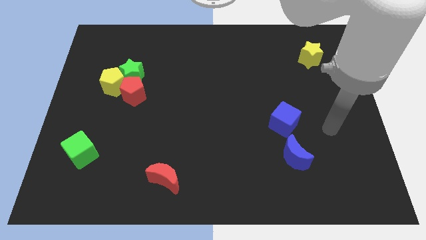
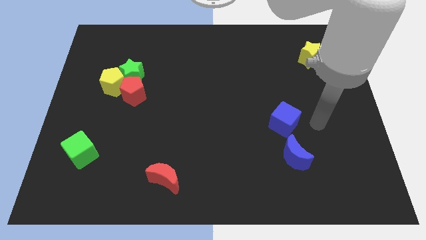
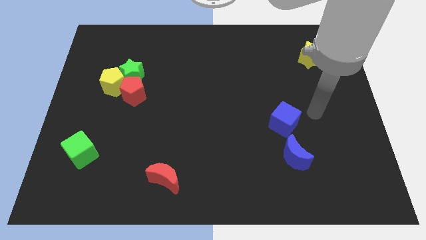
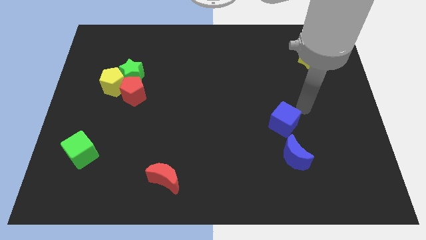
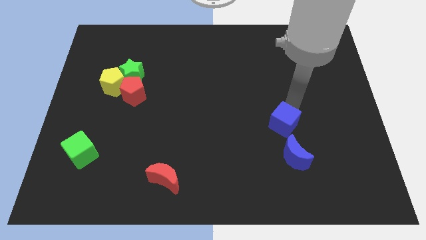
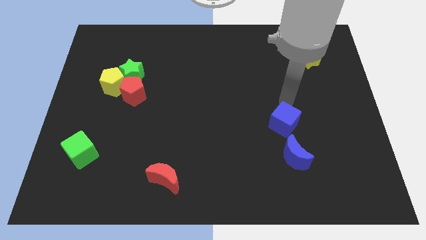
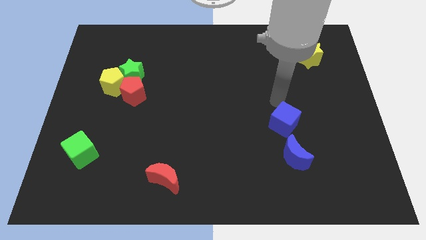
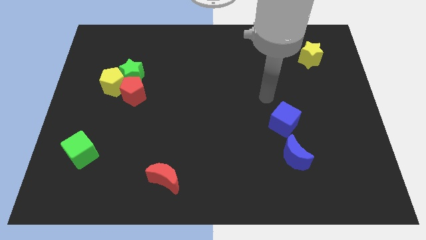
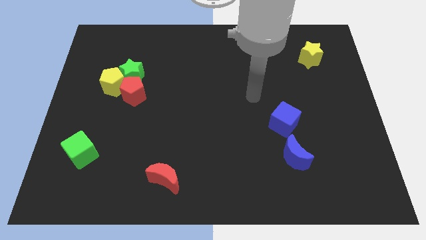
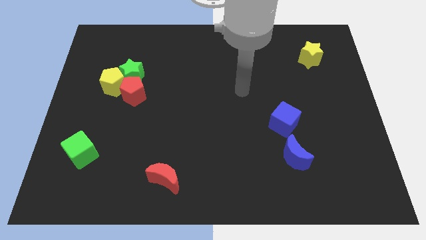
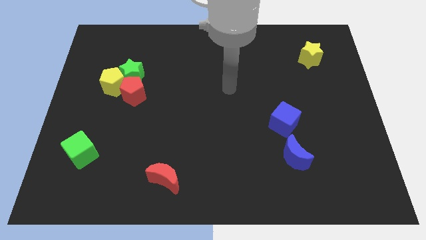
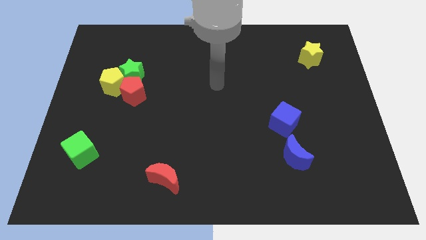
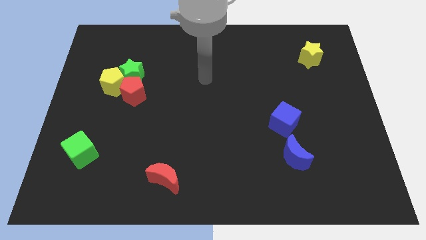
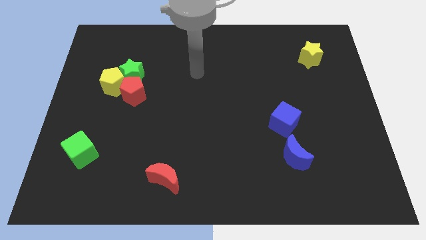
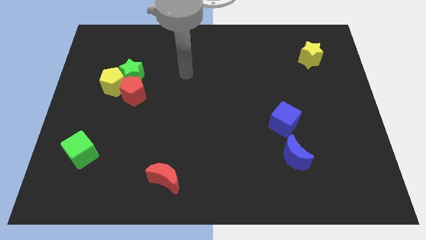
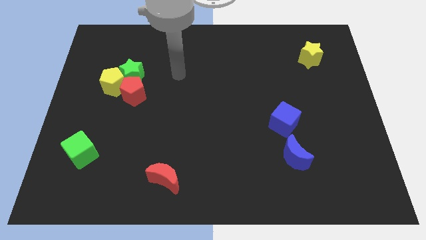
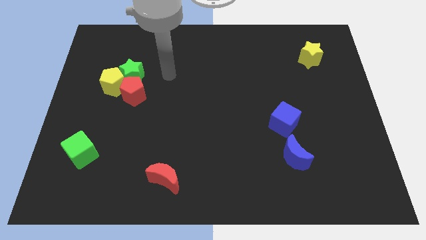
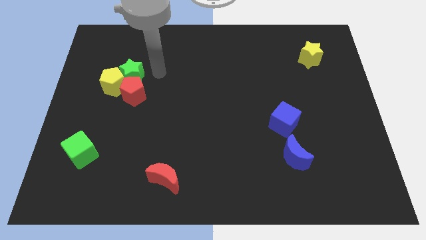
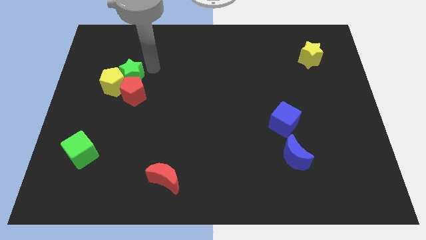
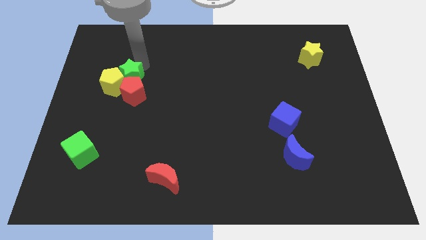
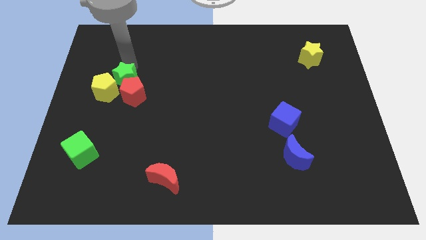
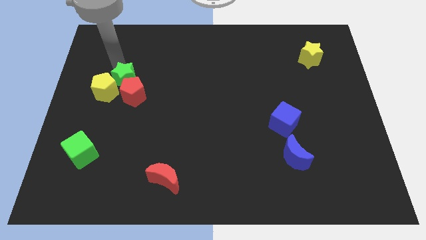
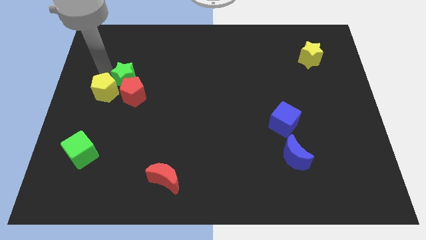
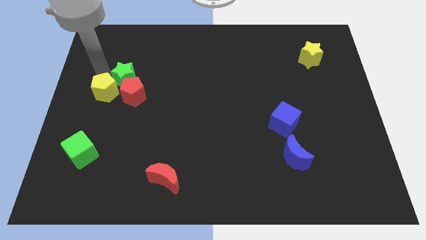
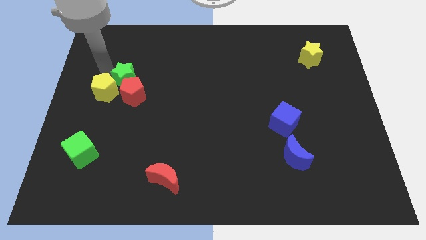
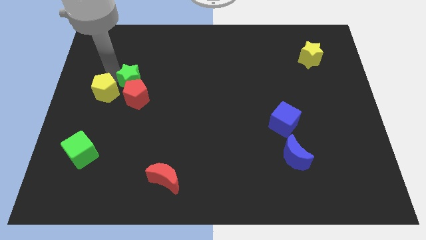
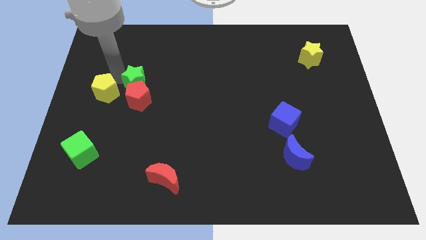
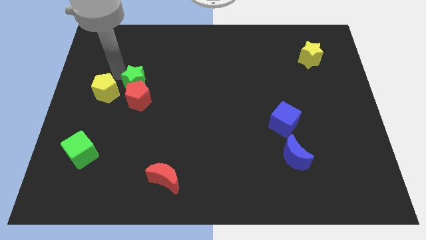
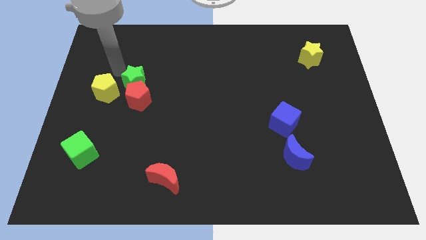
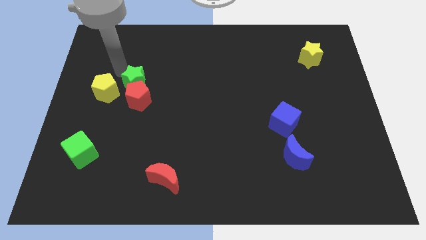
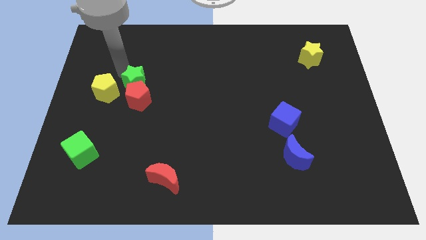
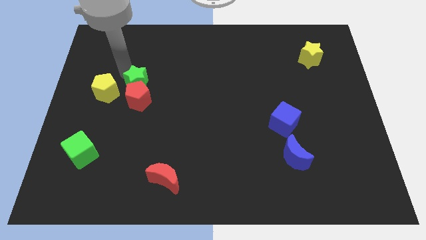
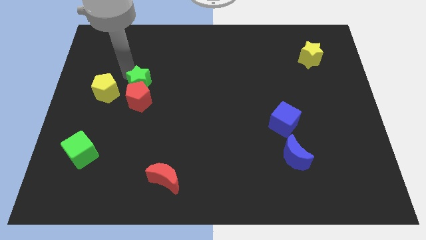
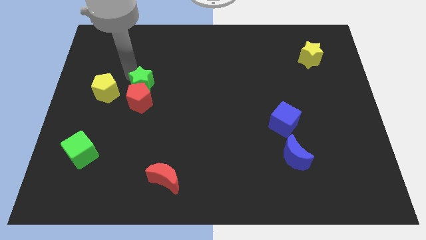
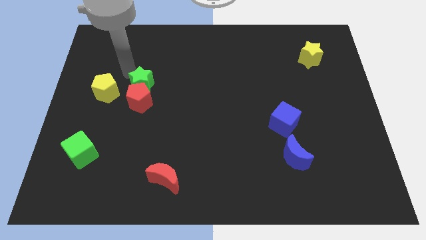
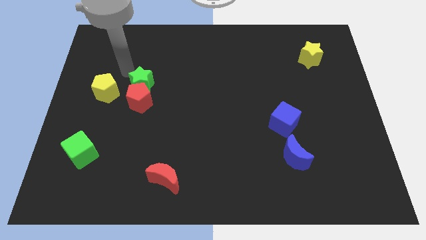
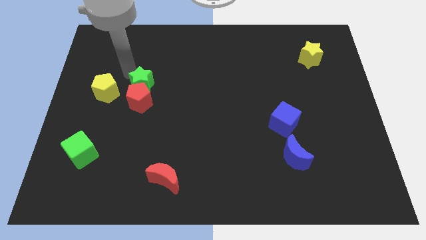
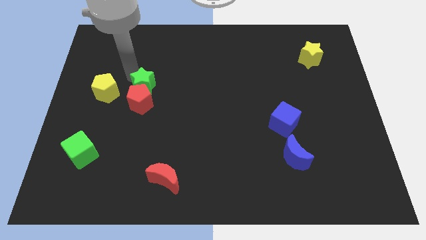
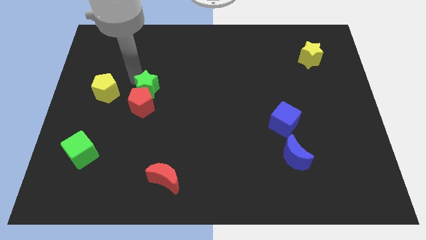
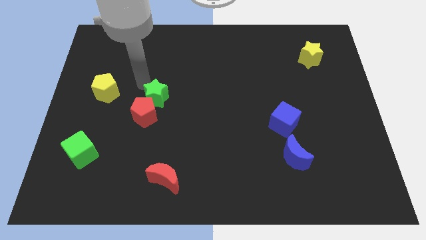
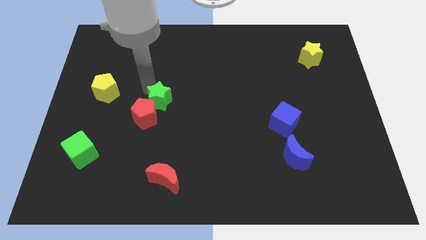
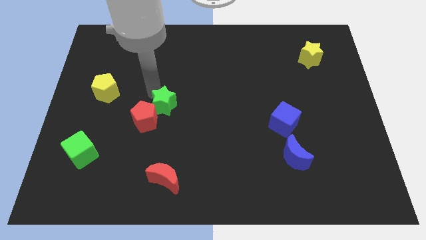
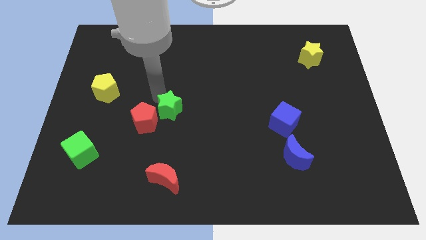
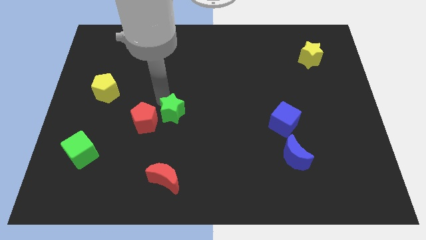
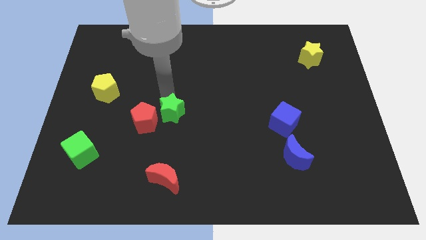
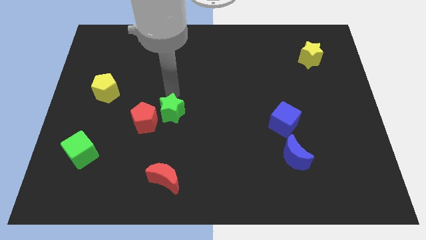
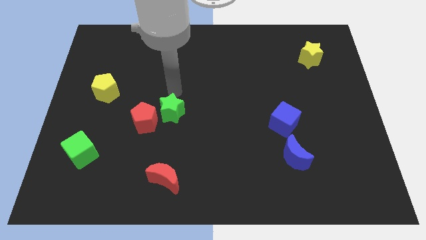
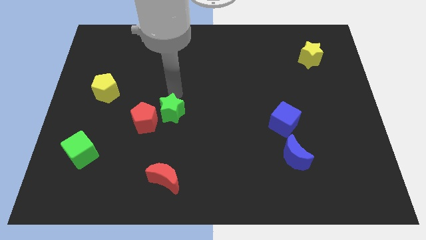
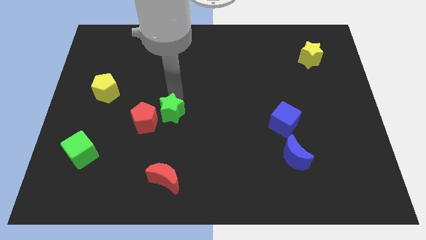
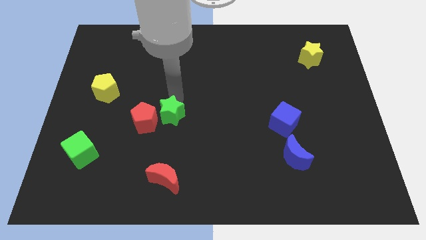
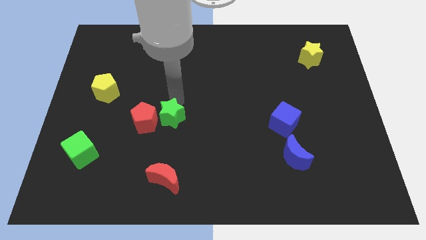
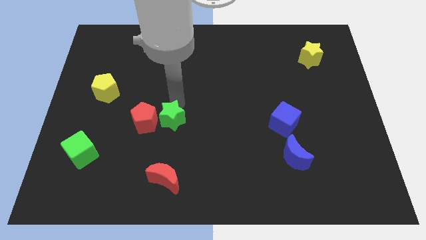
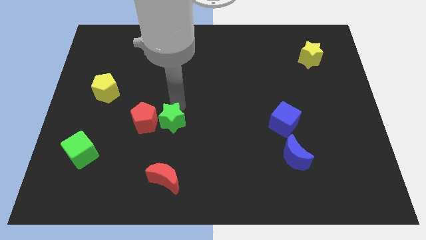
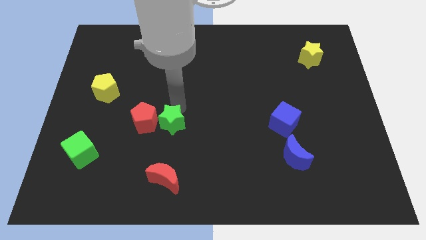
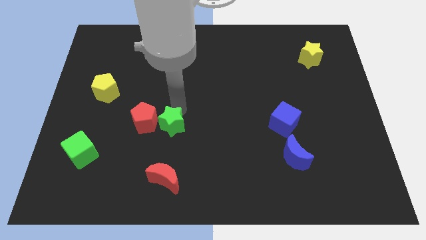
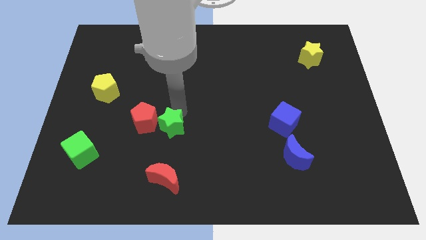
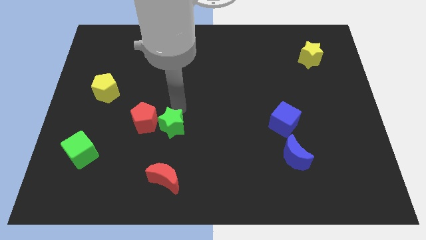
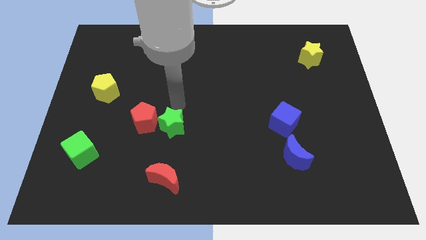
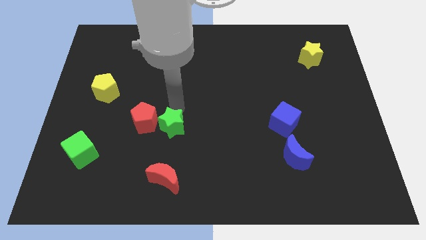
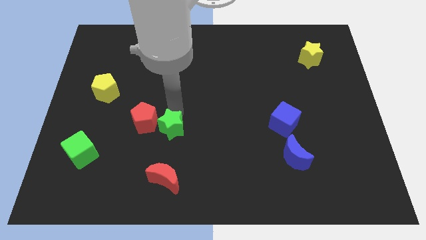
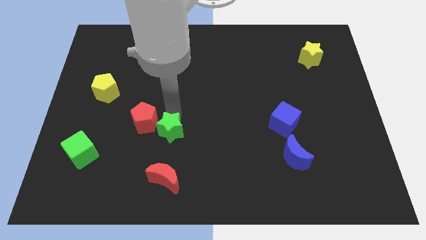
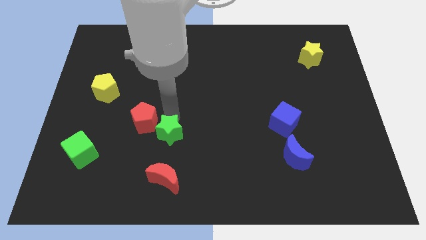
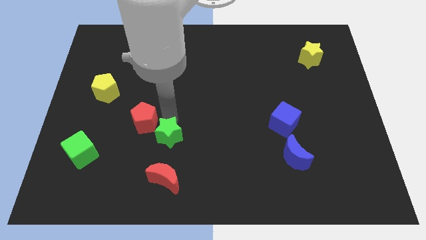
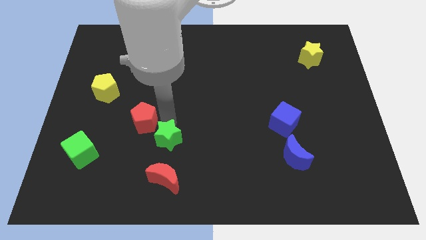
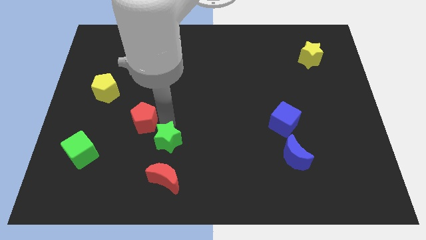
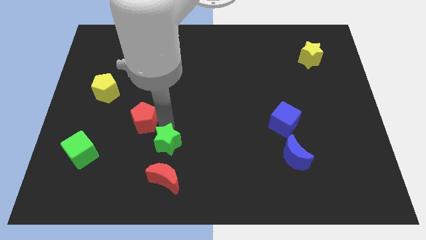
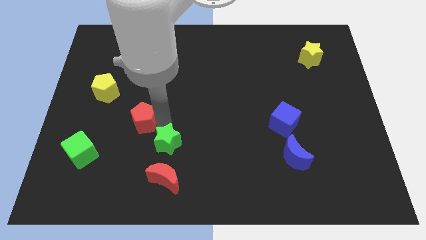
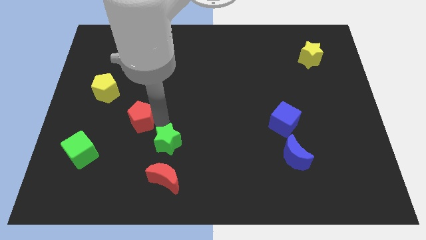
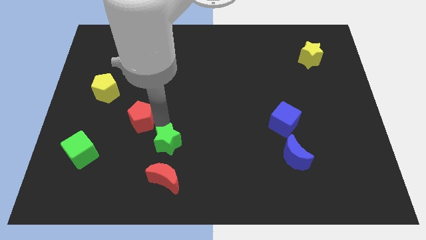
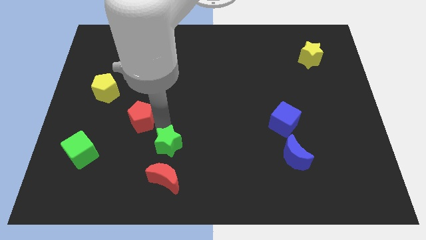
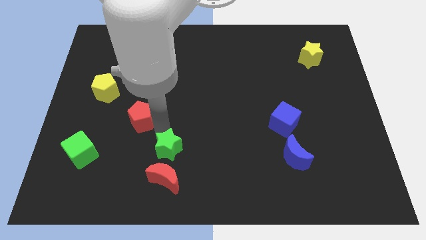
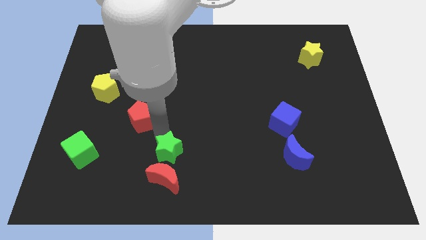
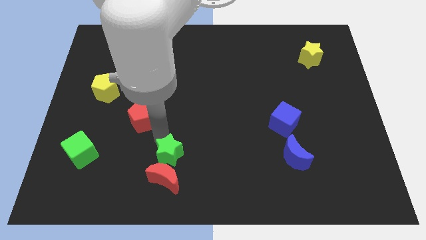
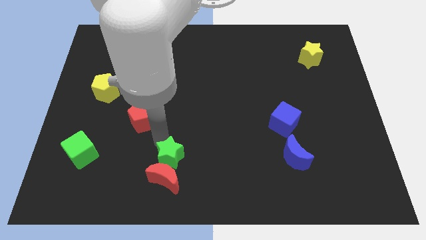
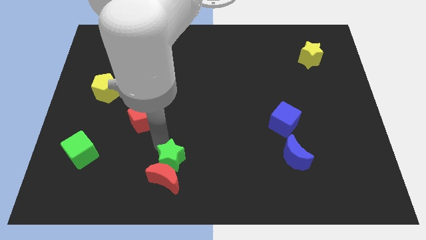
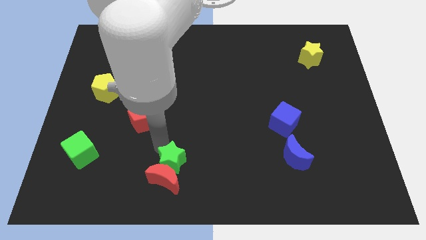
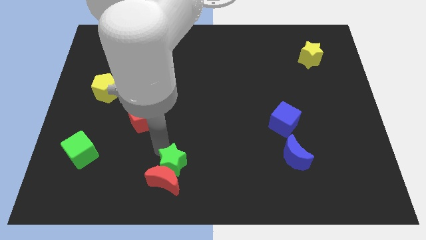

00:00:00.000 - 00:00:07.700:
push the green star to the bottom
